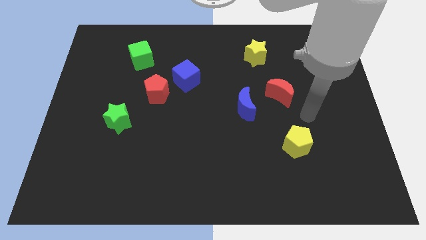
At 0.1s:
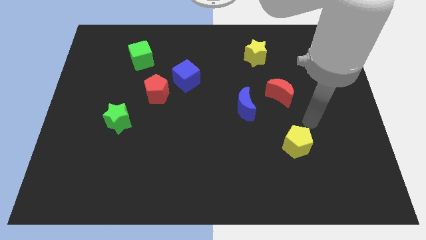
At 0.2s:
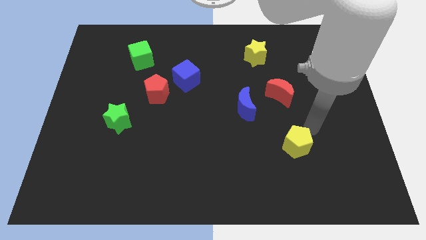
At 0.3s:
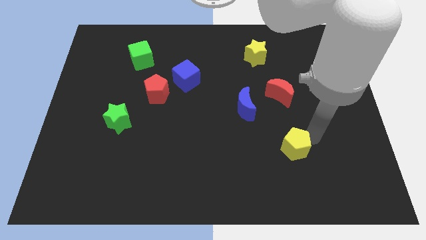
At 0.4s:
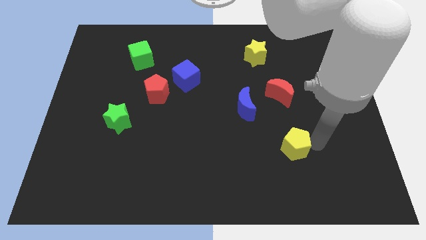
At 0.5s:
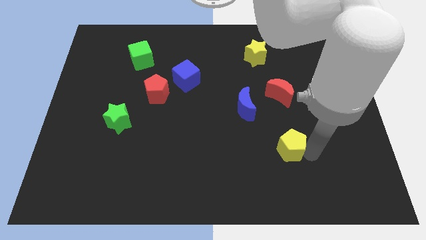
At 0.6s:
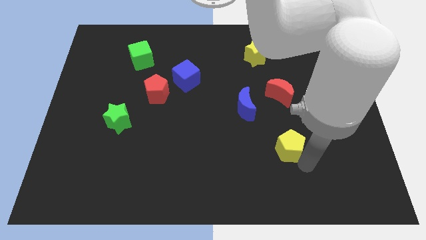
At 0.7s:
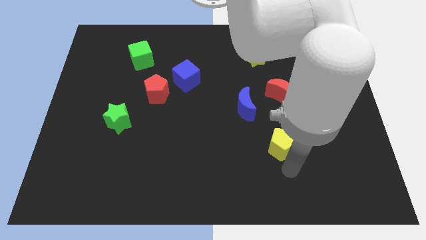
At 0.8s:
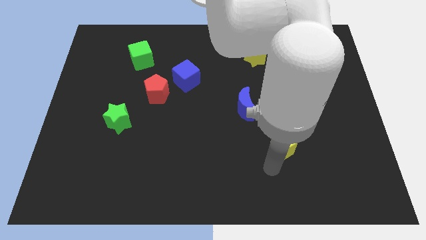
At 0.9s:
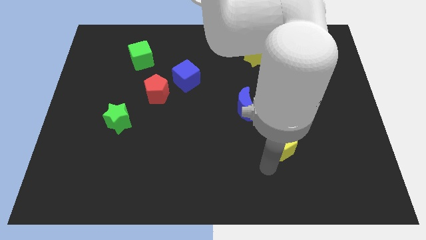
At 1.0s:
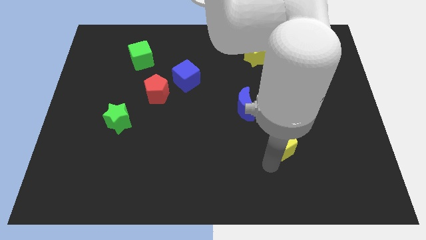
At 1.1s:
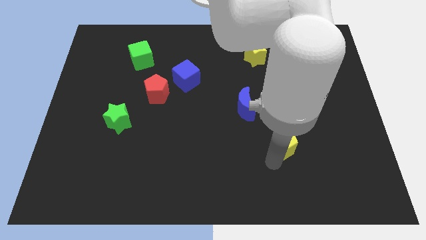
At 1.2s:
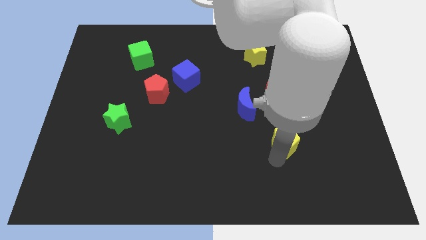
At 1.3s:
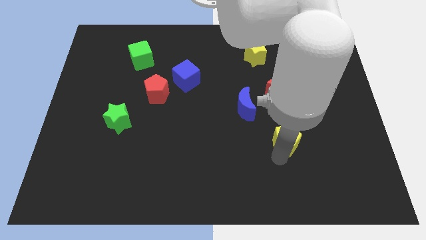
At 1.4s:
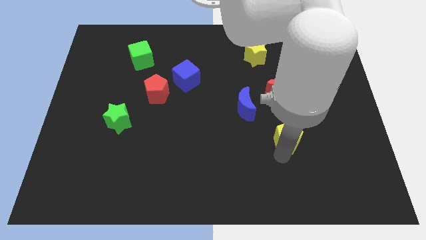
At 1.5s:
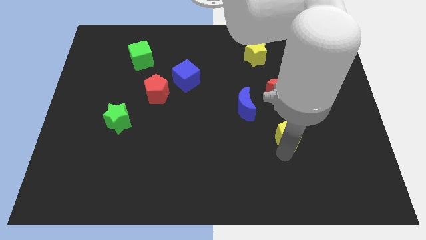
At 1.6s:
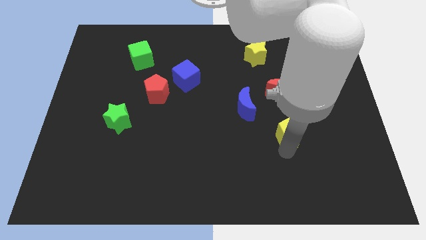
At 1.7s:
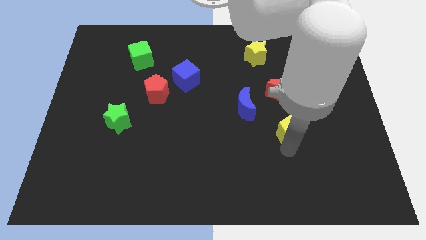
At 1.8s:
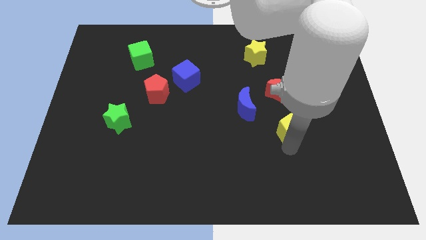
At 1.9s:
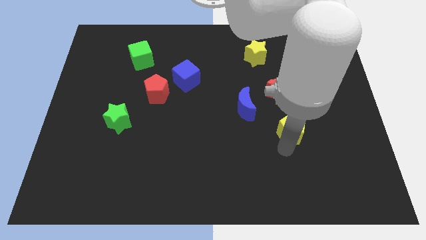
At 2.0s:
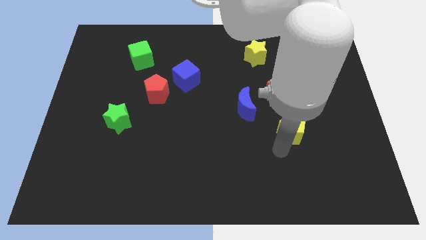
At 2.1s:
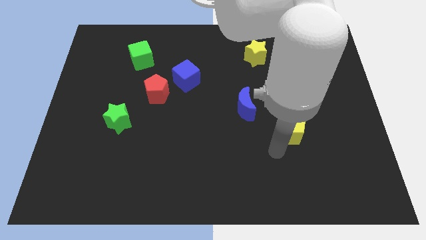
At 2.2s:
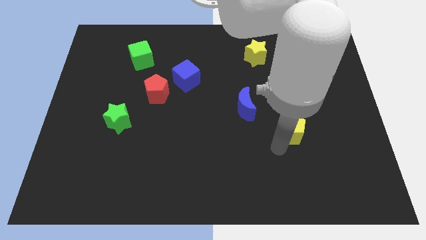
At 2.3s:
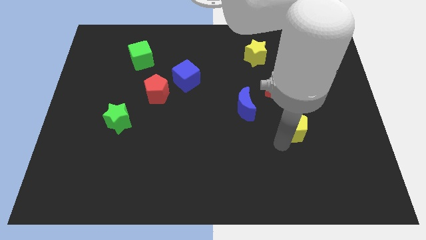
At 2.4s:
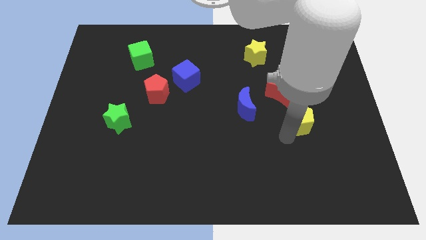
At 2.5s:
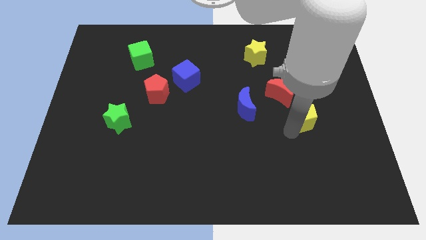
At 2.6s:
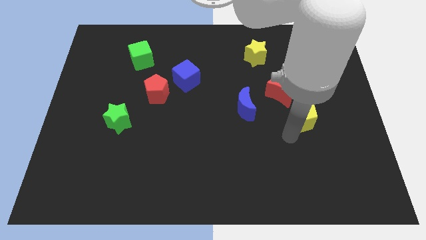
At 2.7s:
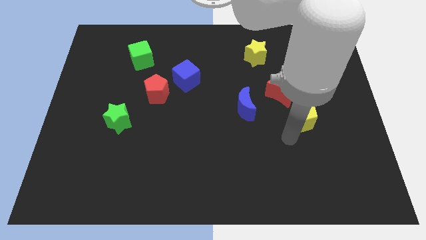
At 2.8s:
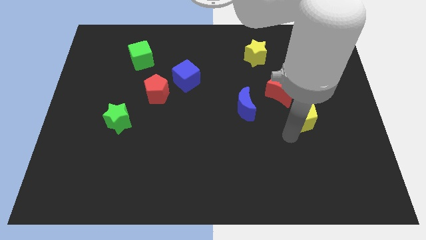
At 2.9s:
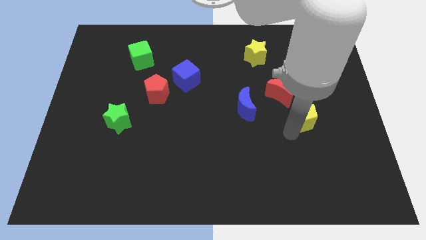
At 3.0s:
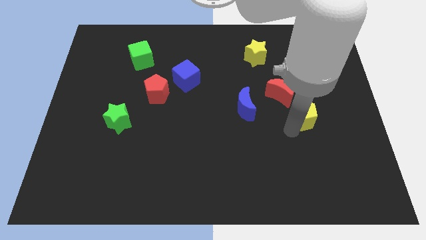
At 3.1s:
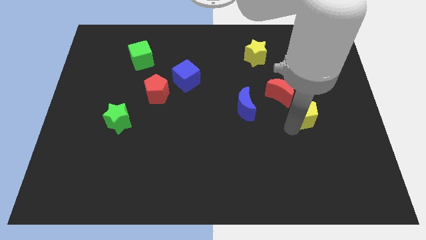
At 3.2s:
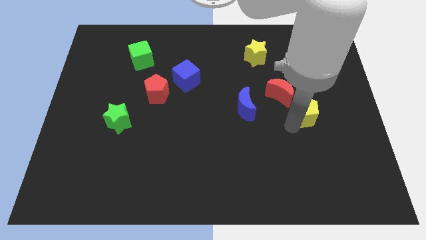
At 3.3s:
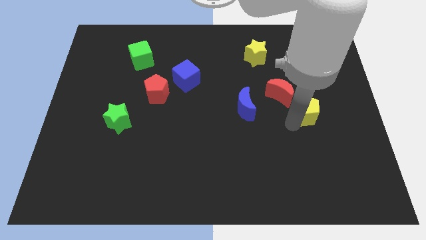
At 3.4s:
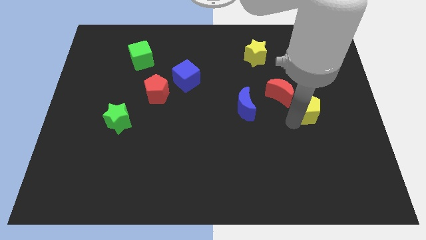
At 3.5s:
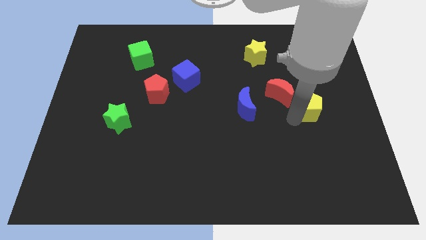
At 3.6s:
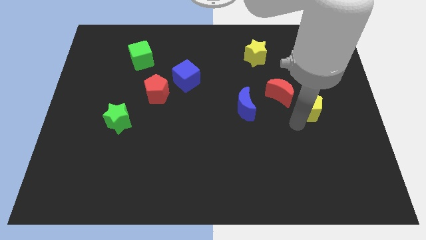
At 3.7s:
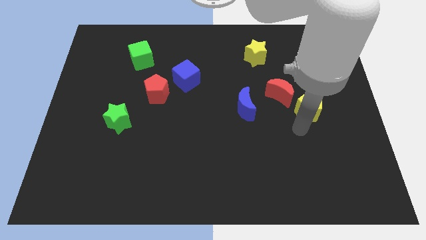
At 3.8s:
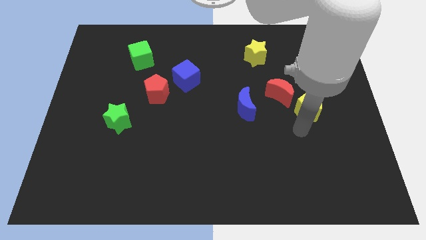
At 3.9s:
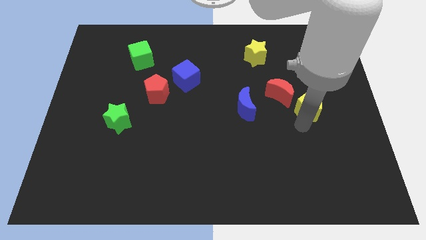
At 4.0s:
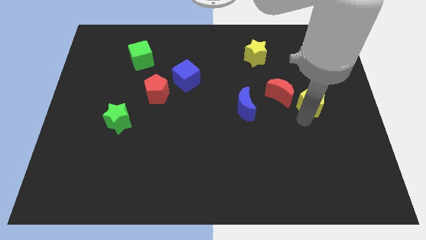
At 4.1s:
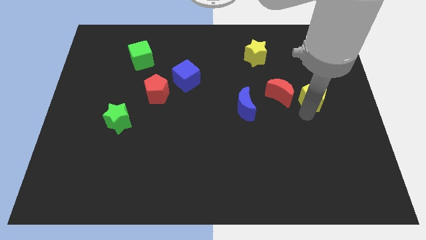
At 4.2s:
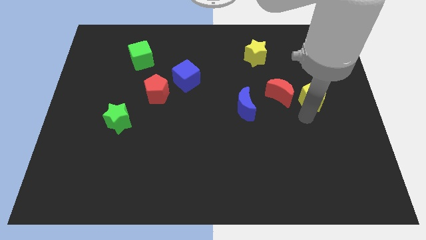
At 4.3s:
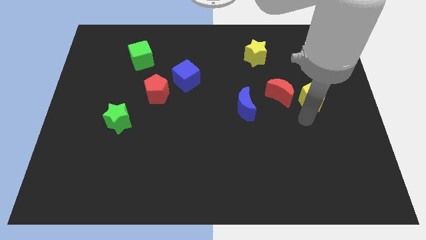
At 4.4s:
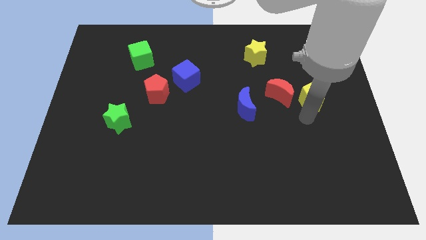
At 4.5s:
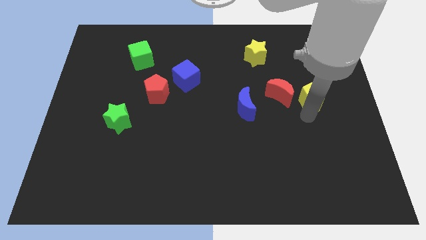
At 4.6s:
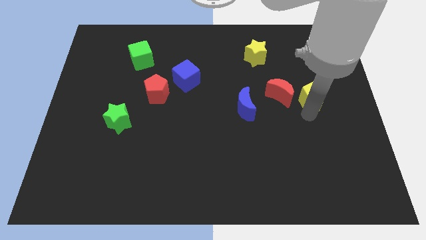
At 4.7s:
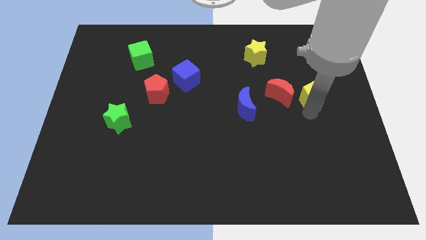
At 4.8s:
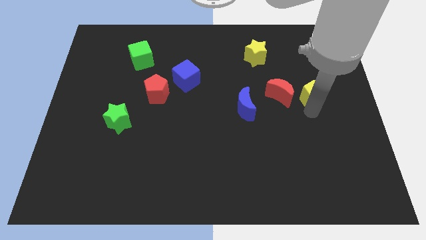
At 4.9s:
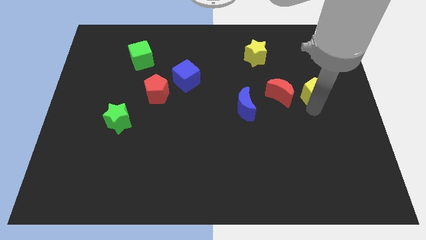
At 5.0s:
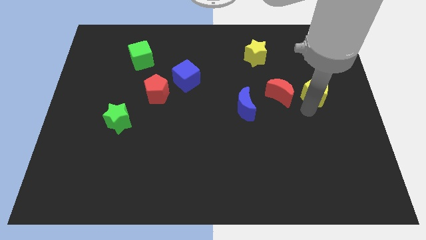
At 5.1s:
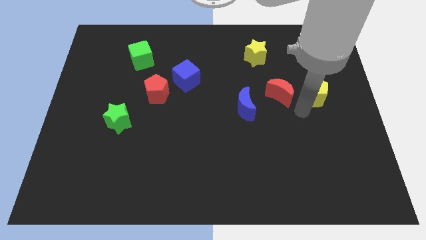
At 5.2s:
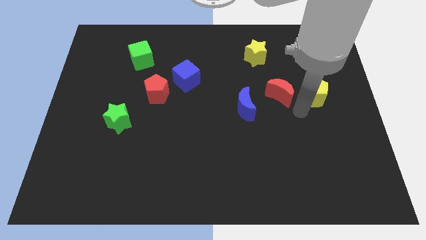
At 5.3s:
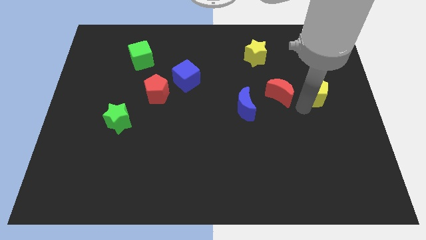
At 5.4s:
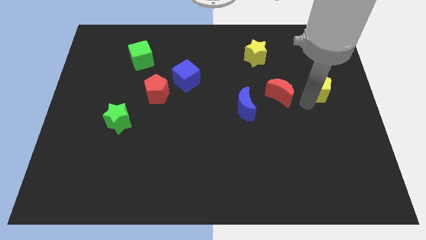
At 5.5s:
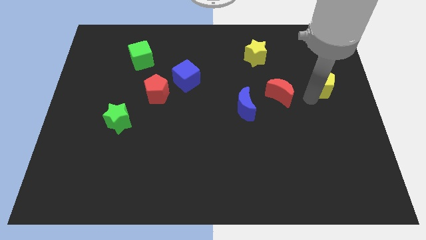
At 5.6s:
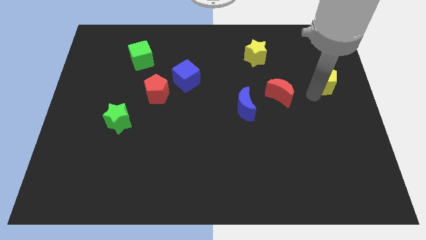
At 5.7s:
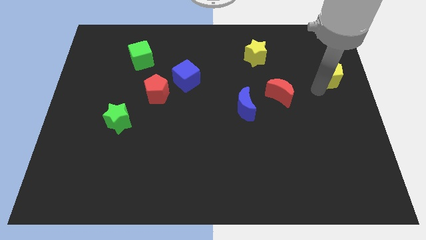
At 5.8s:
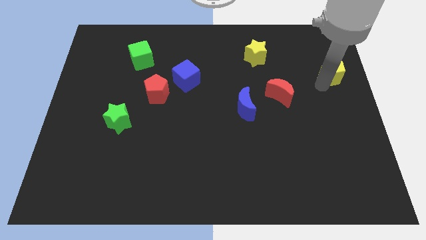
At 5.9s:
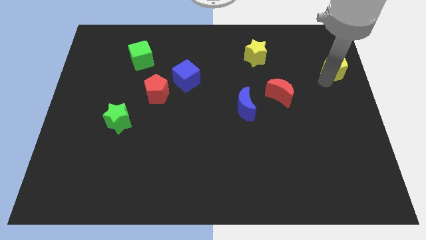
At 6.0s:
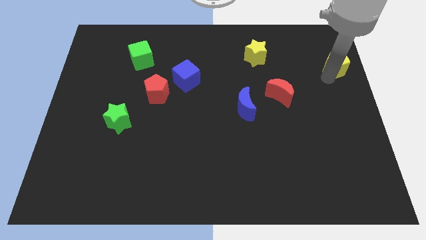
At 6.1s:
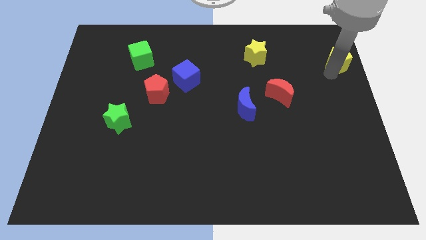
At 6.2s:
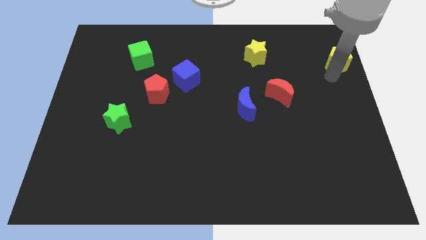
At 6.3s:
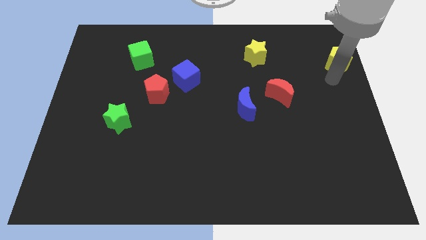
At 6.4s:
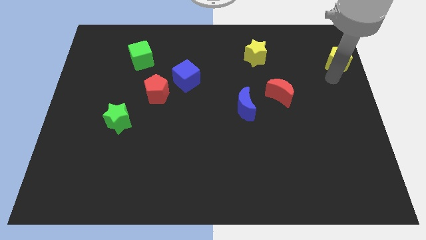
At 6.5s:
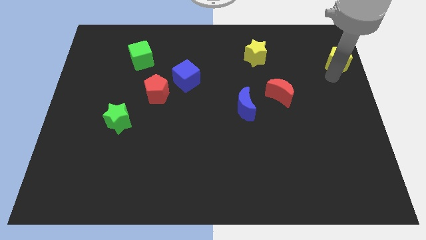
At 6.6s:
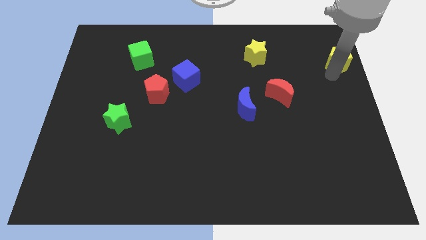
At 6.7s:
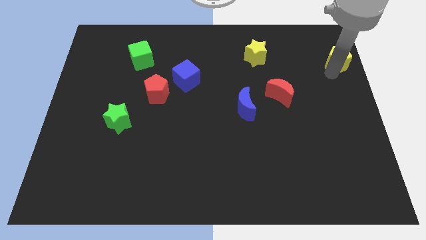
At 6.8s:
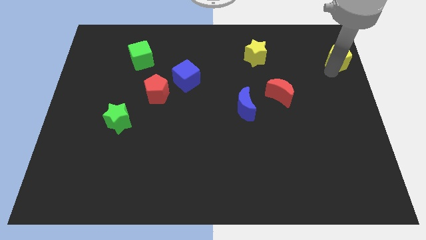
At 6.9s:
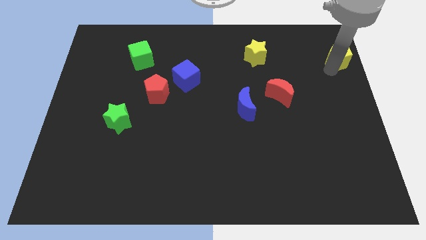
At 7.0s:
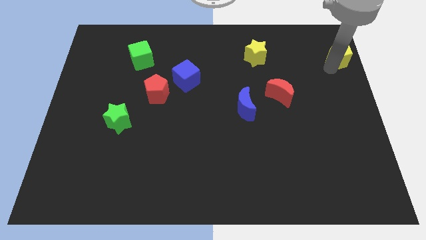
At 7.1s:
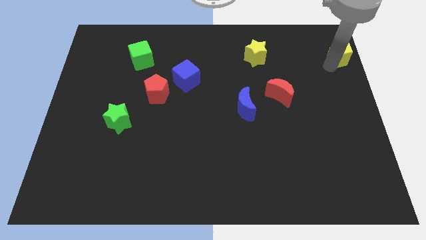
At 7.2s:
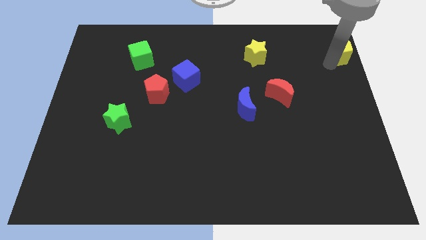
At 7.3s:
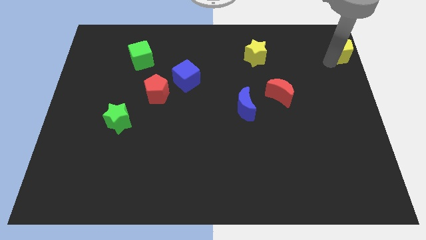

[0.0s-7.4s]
move the yellow pentagon to the upper right corner
